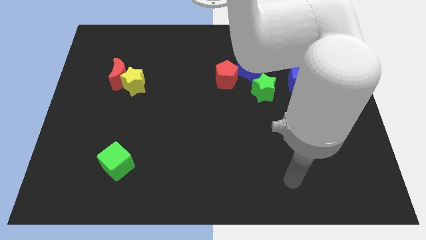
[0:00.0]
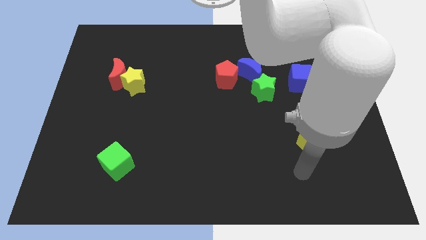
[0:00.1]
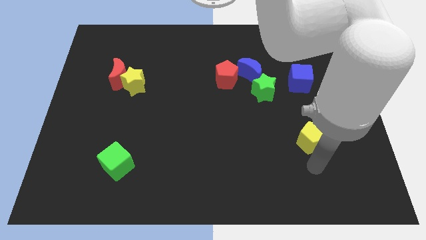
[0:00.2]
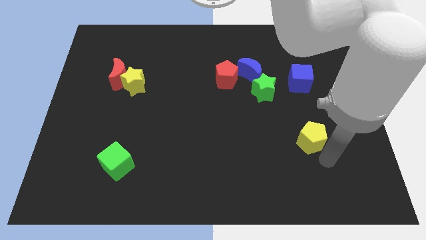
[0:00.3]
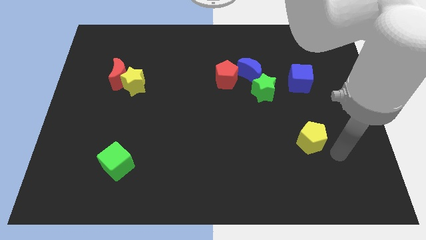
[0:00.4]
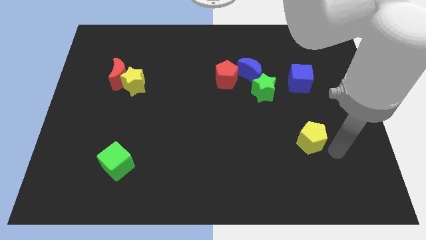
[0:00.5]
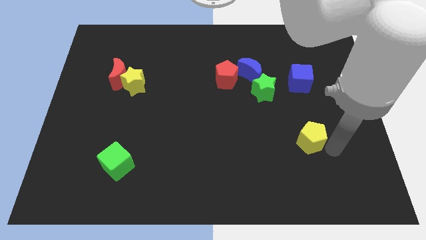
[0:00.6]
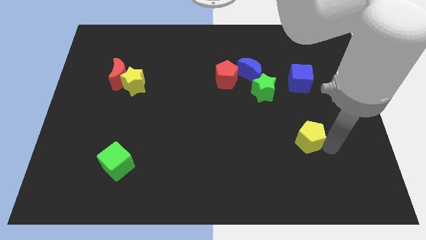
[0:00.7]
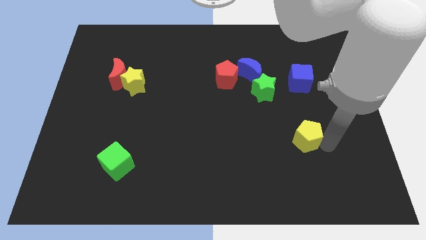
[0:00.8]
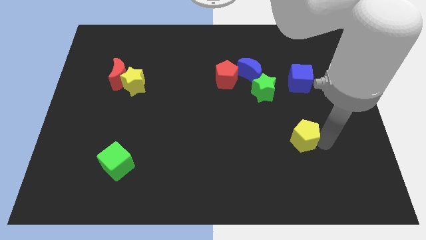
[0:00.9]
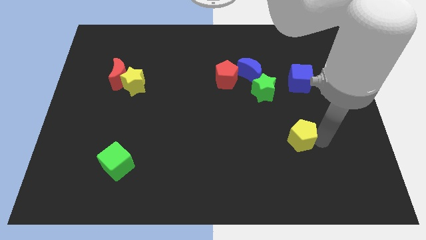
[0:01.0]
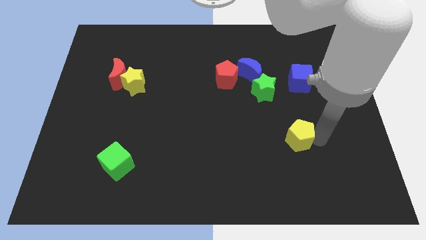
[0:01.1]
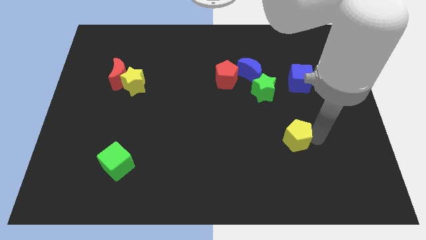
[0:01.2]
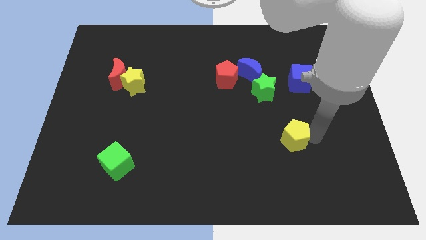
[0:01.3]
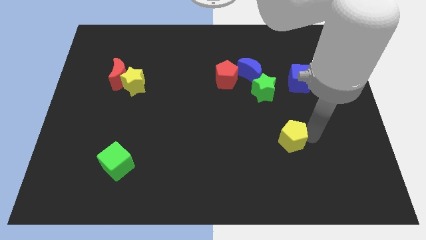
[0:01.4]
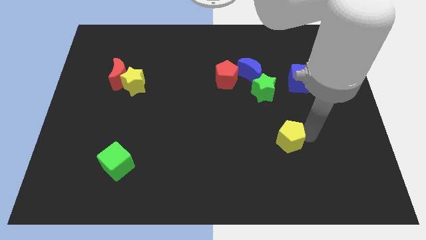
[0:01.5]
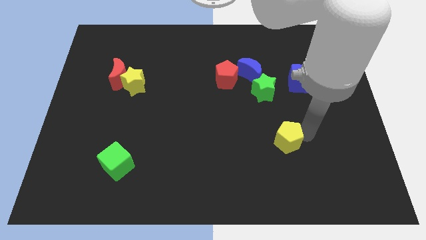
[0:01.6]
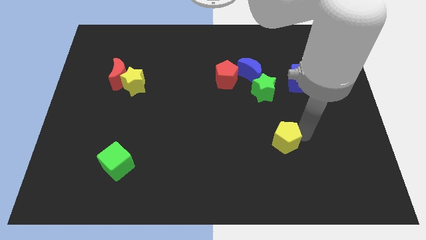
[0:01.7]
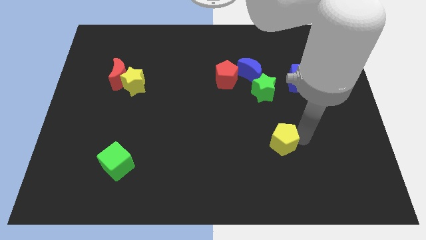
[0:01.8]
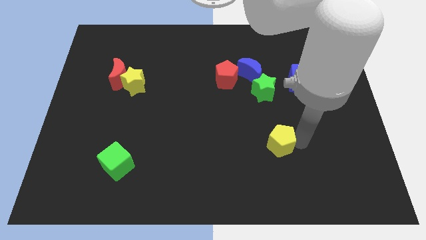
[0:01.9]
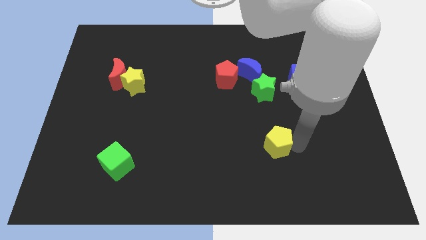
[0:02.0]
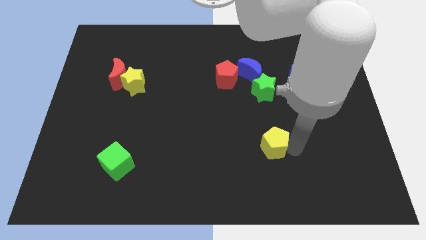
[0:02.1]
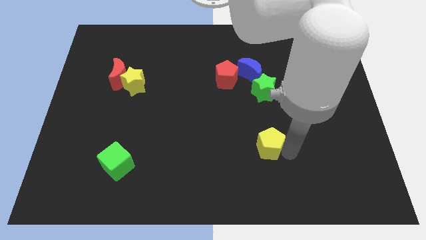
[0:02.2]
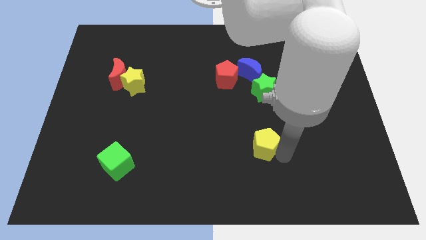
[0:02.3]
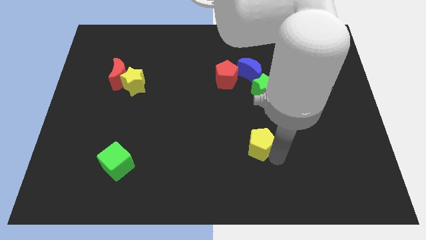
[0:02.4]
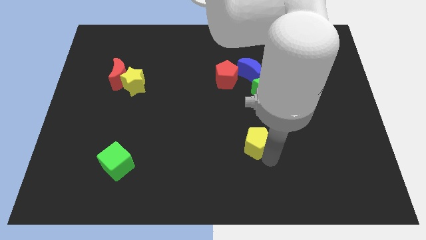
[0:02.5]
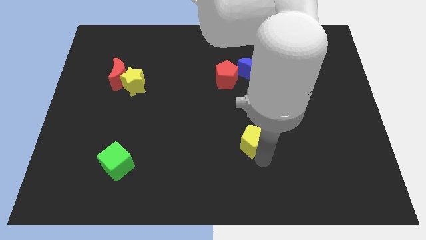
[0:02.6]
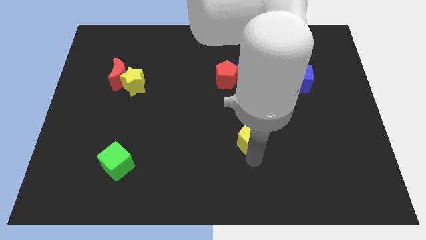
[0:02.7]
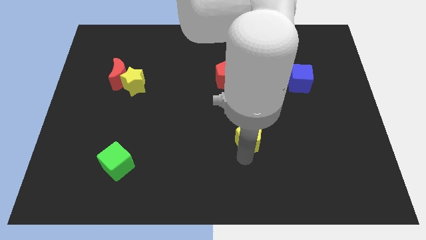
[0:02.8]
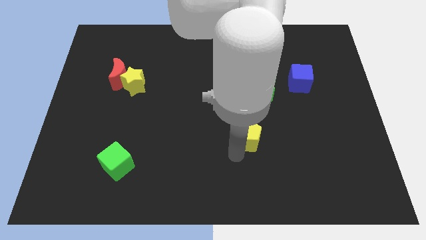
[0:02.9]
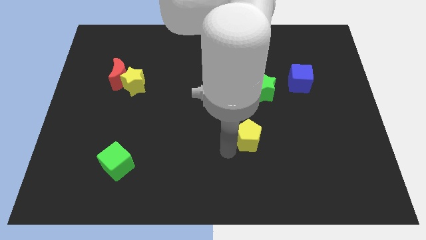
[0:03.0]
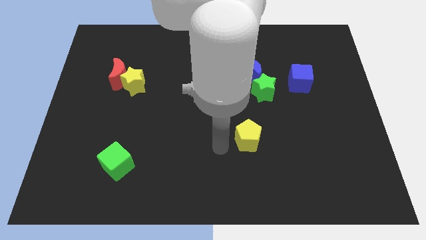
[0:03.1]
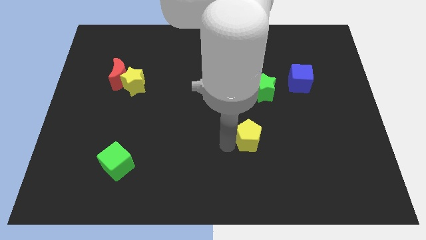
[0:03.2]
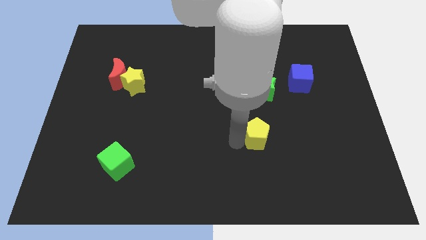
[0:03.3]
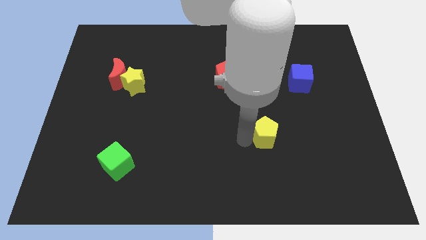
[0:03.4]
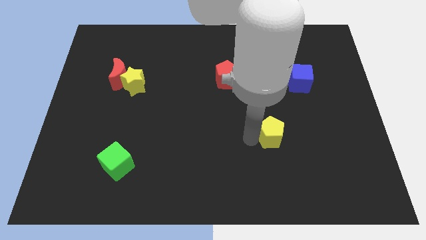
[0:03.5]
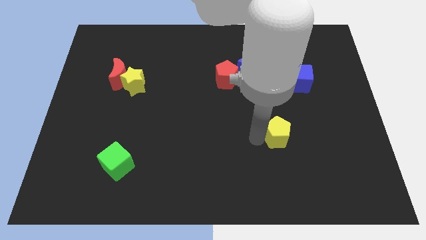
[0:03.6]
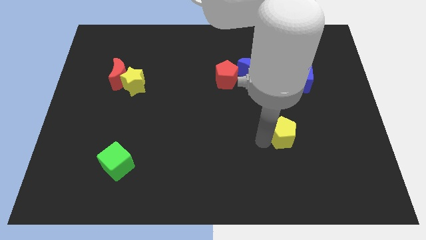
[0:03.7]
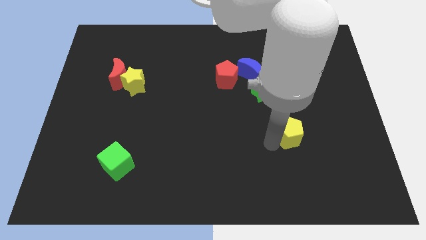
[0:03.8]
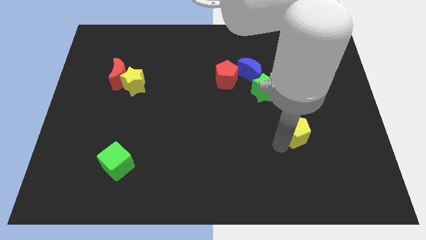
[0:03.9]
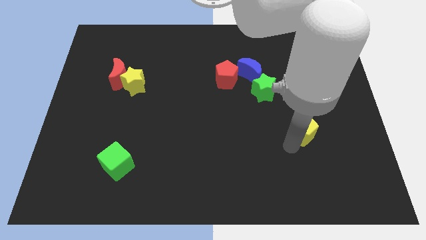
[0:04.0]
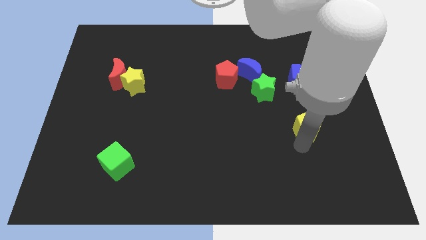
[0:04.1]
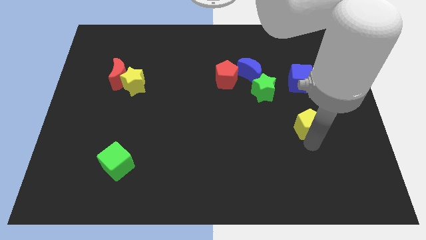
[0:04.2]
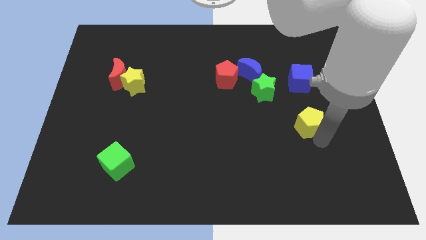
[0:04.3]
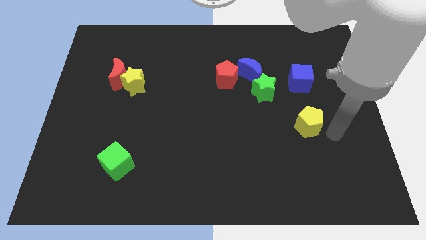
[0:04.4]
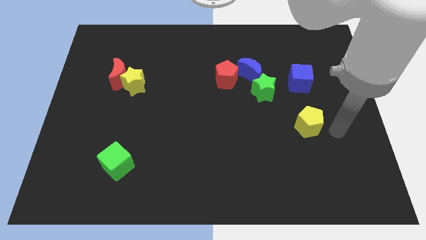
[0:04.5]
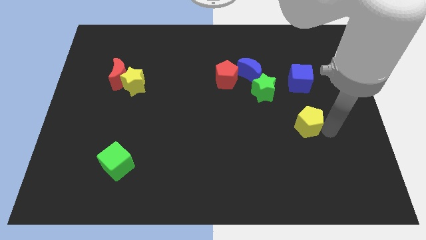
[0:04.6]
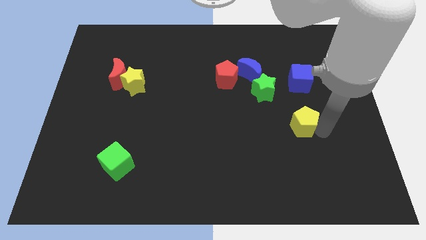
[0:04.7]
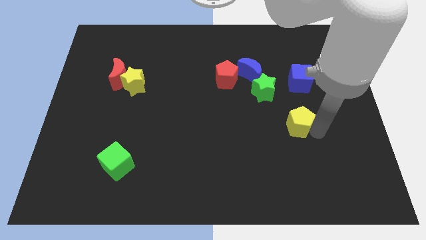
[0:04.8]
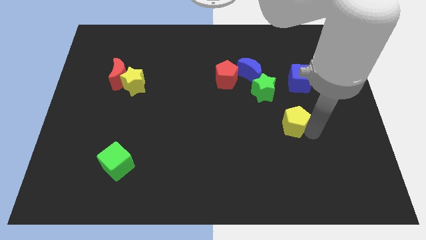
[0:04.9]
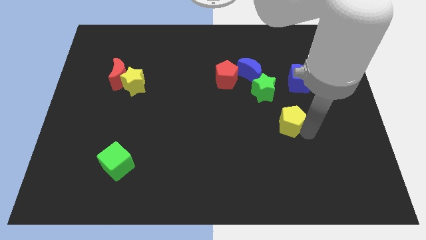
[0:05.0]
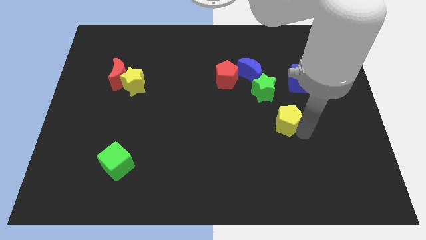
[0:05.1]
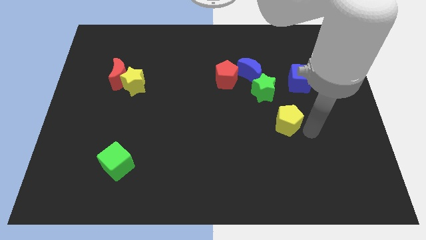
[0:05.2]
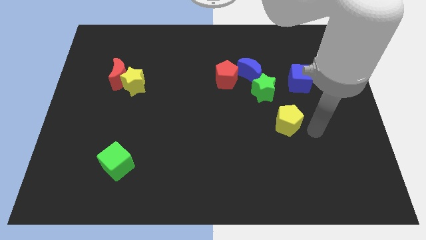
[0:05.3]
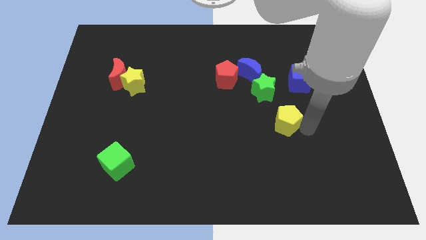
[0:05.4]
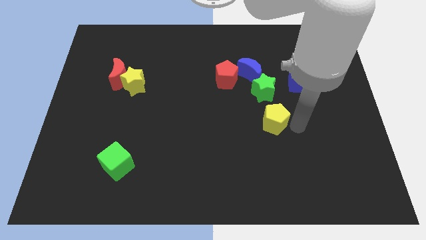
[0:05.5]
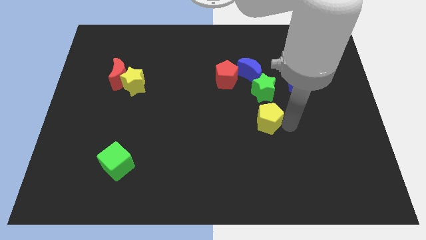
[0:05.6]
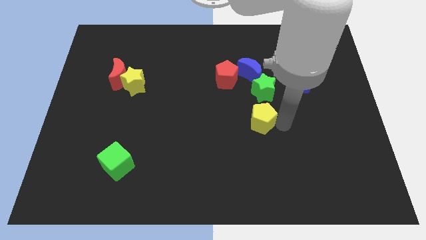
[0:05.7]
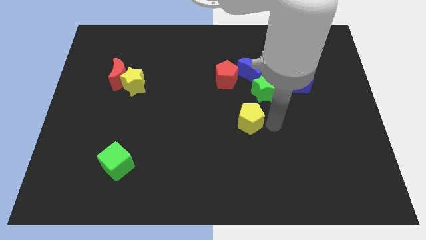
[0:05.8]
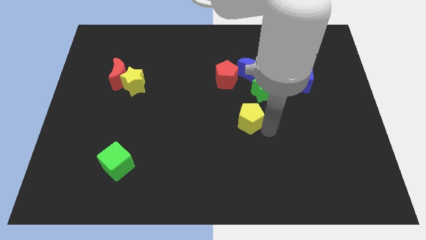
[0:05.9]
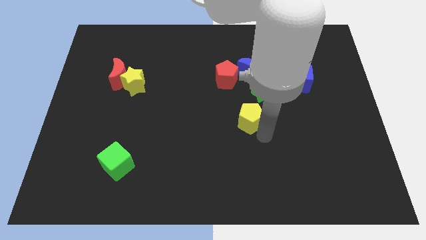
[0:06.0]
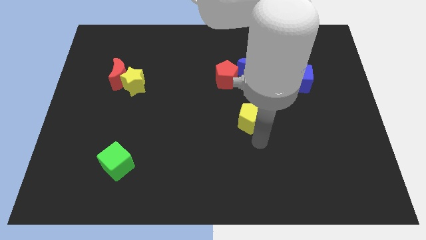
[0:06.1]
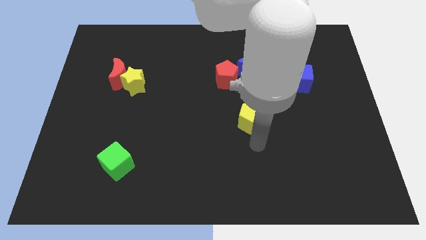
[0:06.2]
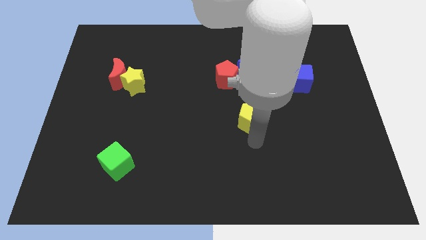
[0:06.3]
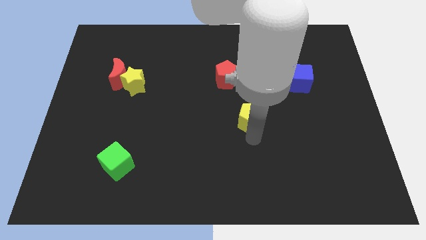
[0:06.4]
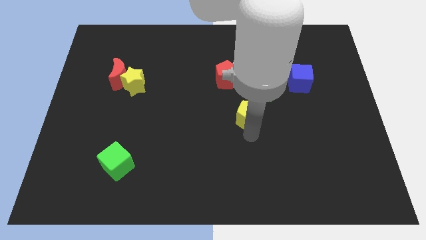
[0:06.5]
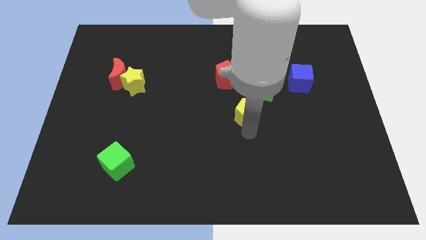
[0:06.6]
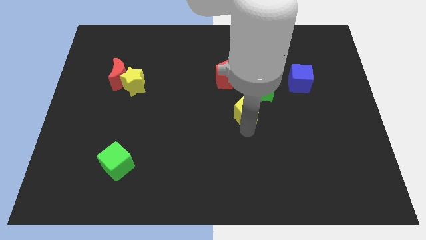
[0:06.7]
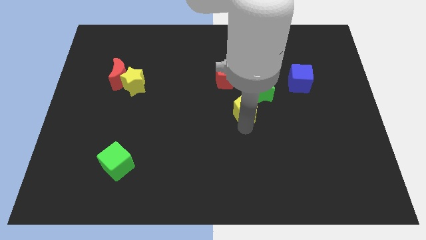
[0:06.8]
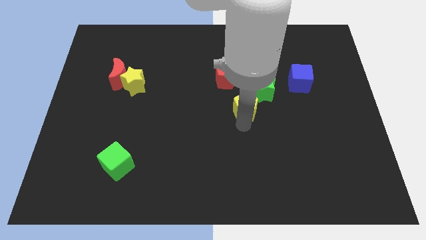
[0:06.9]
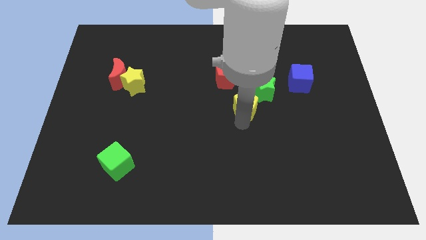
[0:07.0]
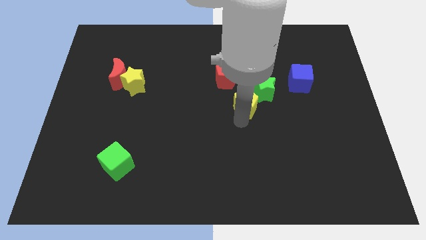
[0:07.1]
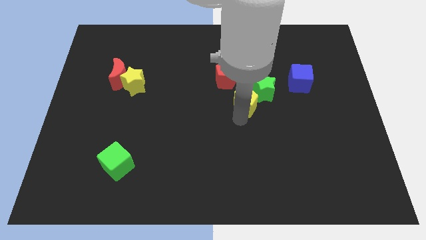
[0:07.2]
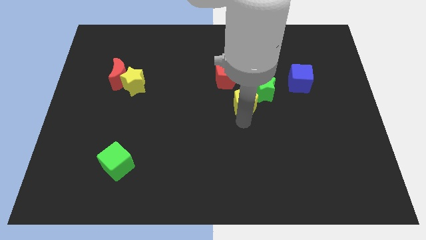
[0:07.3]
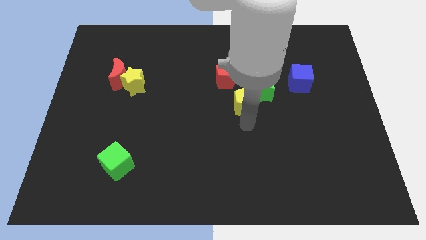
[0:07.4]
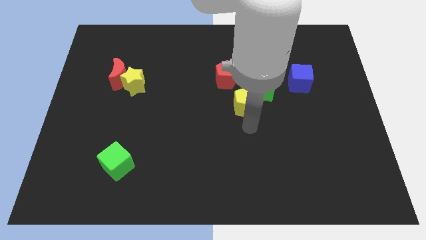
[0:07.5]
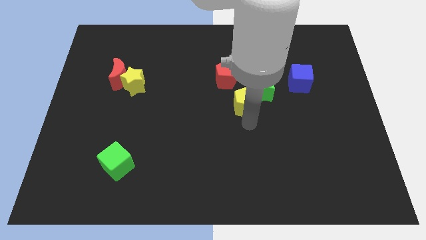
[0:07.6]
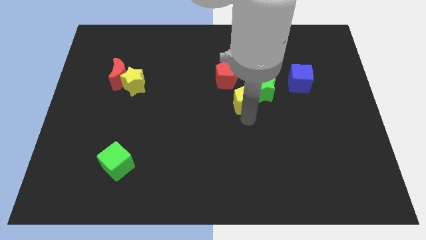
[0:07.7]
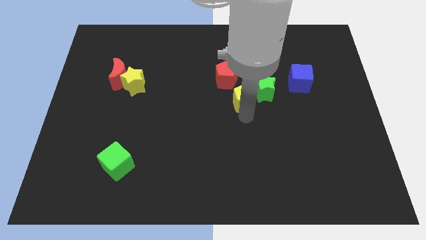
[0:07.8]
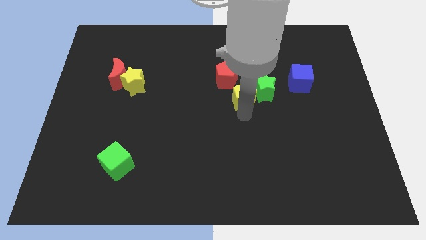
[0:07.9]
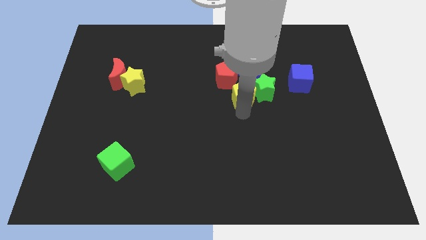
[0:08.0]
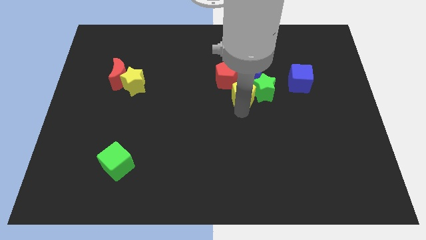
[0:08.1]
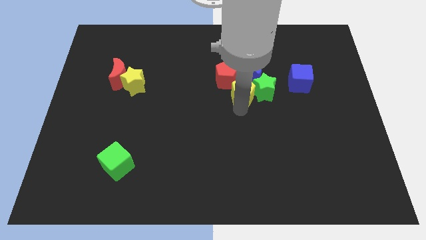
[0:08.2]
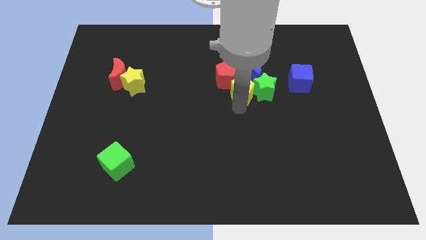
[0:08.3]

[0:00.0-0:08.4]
slide the yellow pentagon diagonally up and to the left

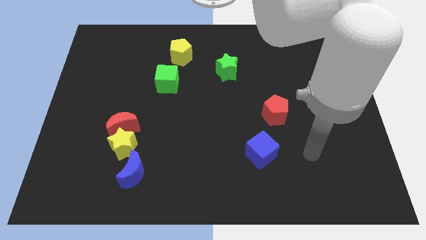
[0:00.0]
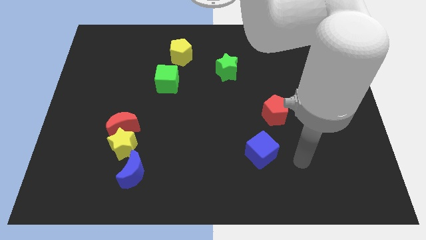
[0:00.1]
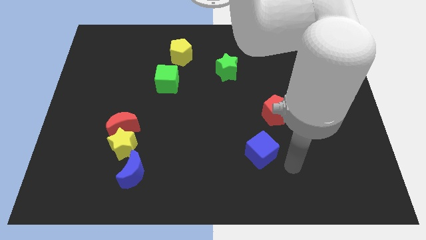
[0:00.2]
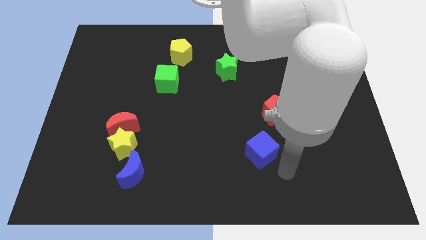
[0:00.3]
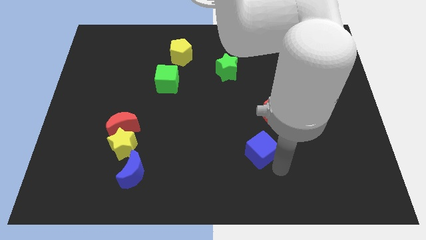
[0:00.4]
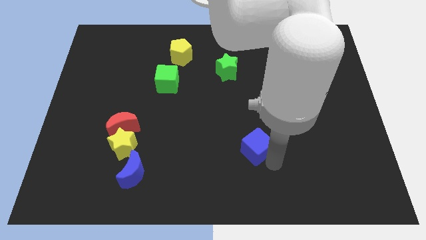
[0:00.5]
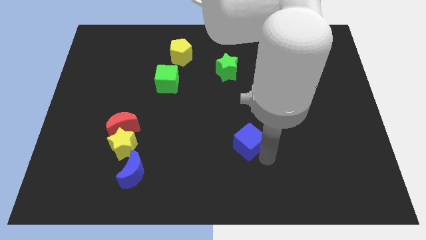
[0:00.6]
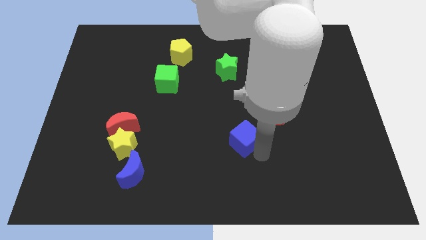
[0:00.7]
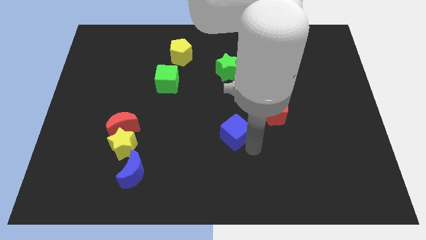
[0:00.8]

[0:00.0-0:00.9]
slightly slide the blue cube up and then left
